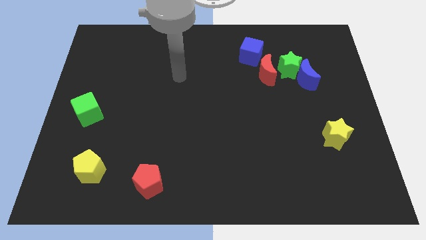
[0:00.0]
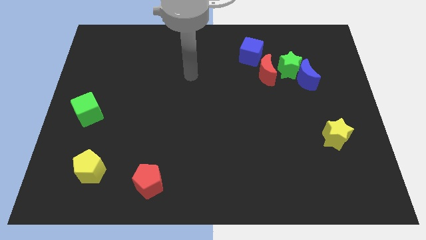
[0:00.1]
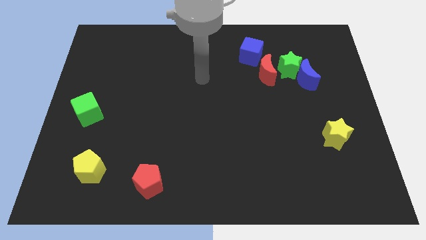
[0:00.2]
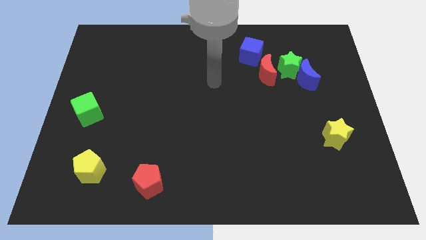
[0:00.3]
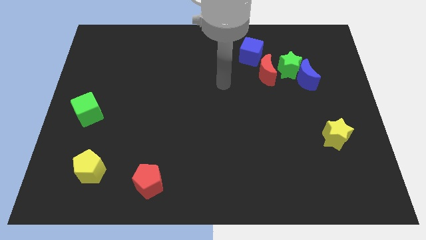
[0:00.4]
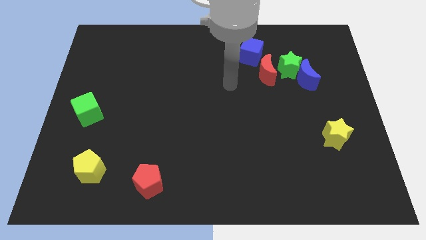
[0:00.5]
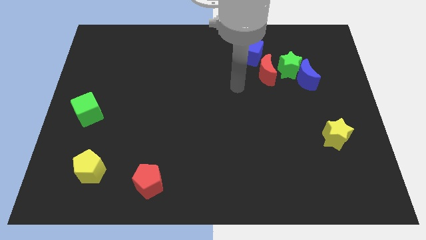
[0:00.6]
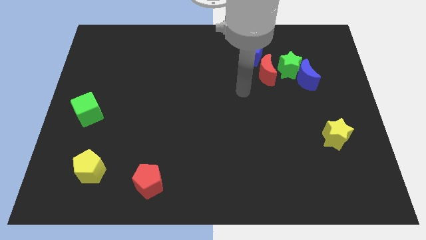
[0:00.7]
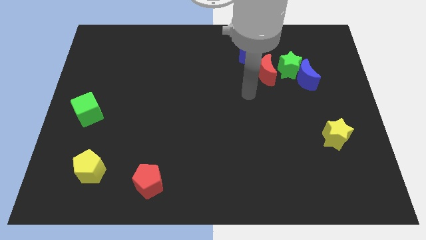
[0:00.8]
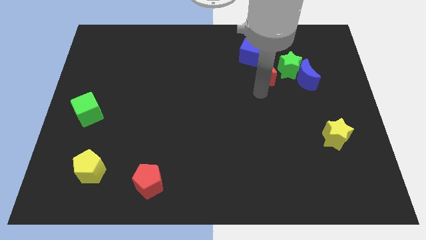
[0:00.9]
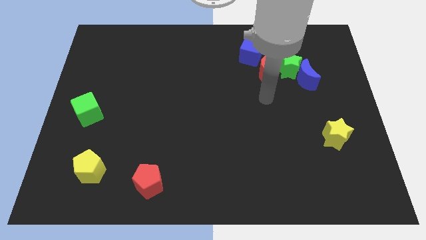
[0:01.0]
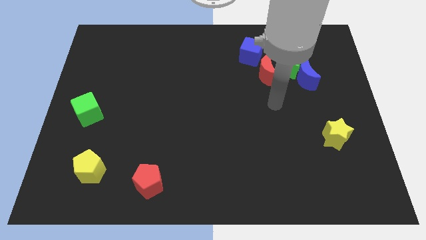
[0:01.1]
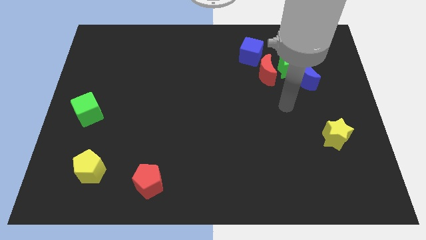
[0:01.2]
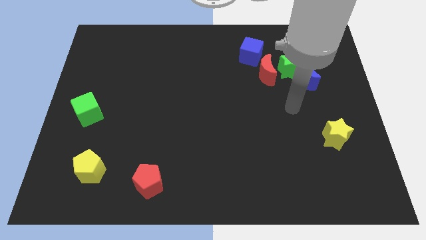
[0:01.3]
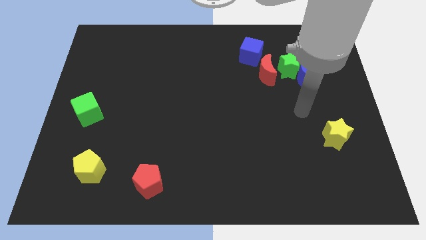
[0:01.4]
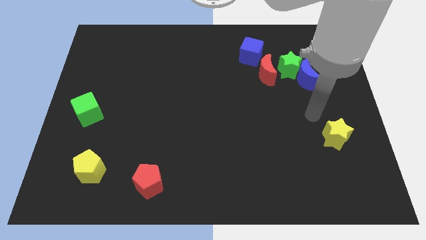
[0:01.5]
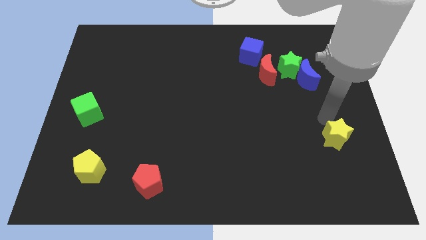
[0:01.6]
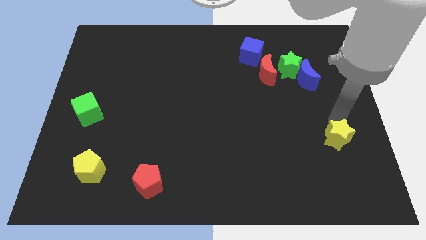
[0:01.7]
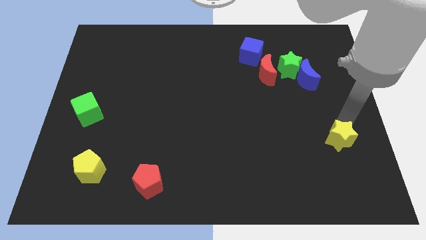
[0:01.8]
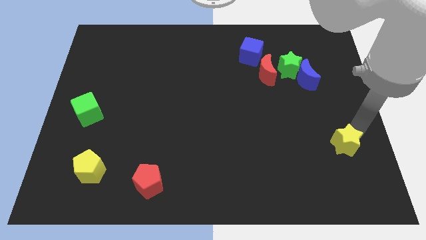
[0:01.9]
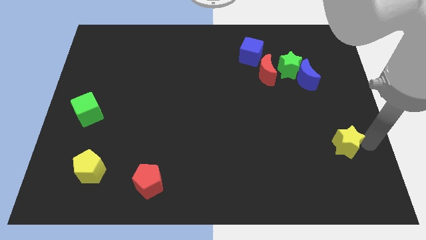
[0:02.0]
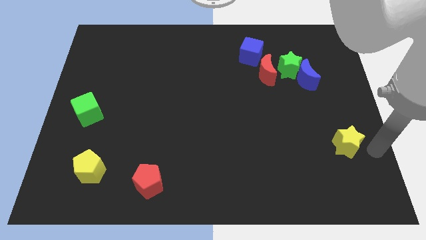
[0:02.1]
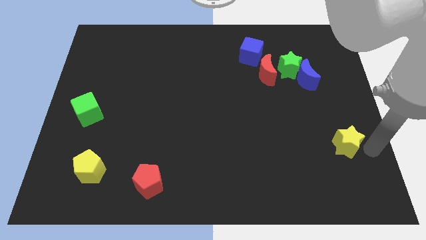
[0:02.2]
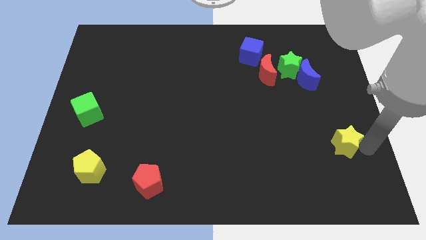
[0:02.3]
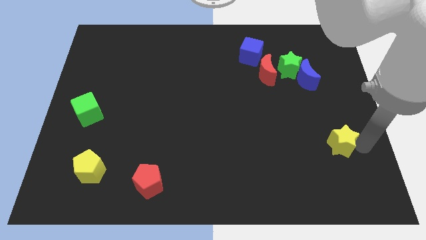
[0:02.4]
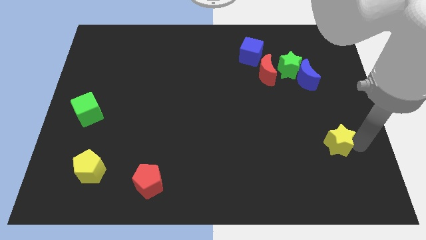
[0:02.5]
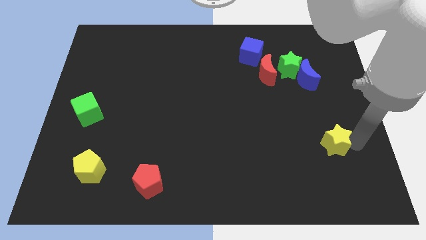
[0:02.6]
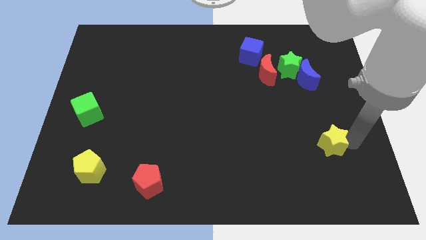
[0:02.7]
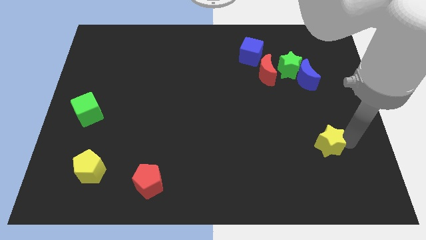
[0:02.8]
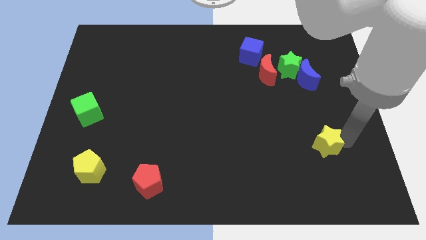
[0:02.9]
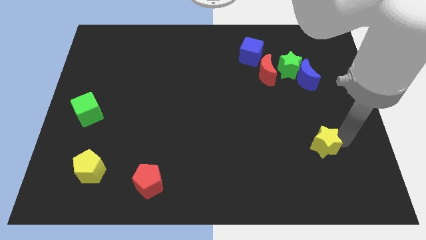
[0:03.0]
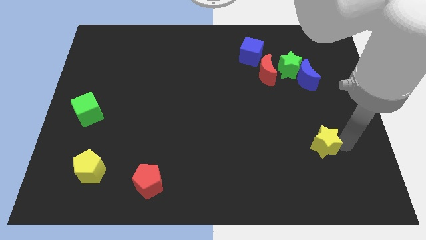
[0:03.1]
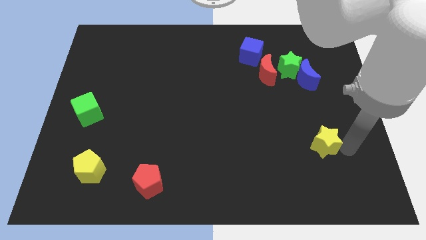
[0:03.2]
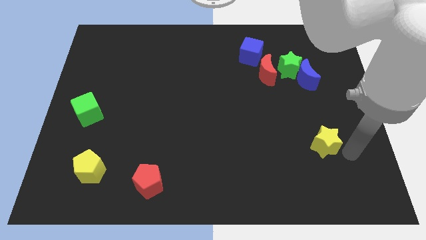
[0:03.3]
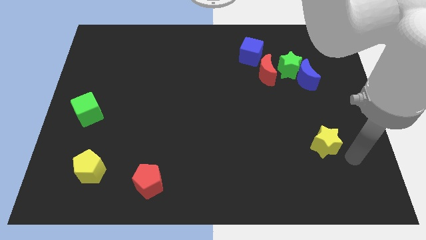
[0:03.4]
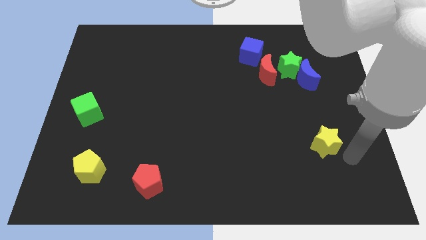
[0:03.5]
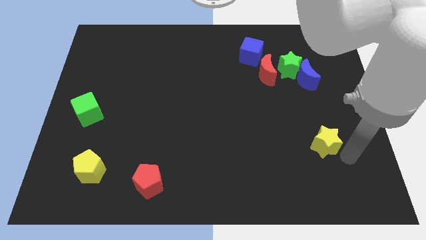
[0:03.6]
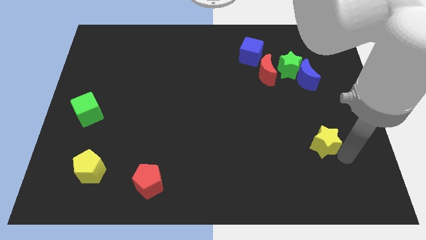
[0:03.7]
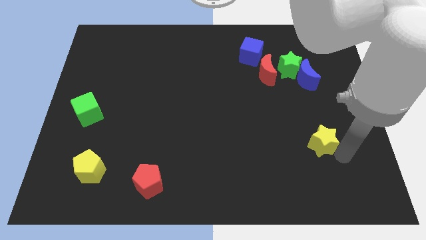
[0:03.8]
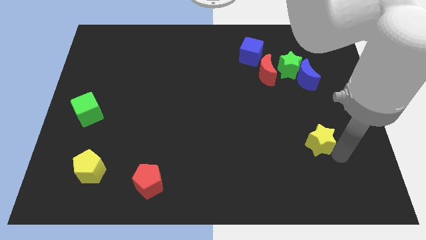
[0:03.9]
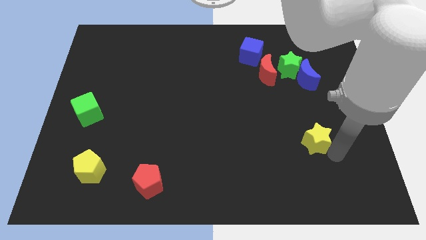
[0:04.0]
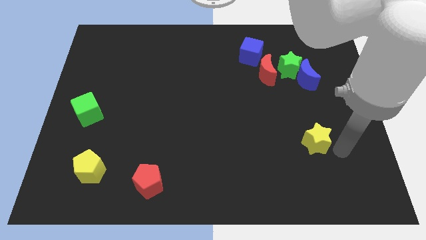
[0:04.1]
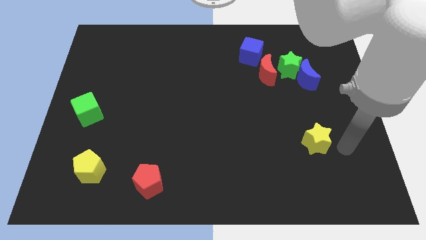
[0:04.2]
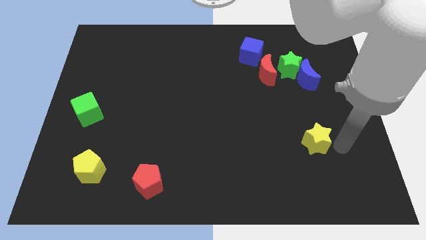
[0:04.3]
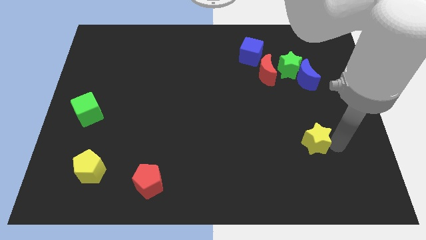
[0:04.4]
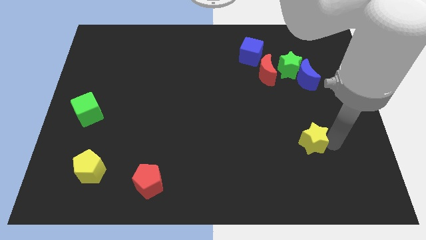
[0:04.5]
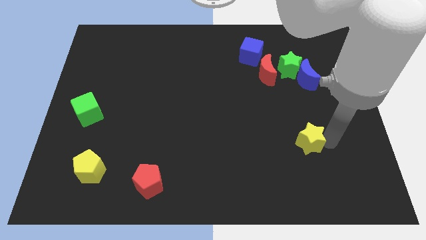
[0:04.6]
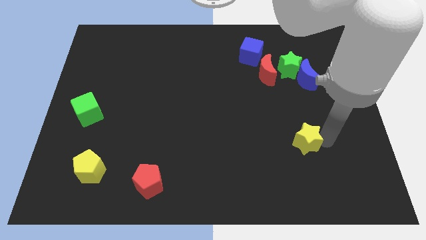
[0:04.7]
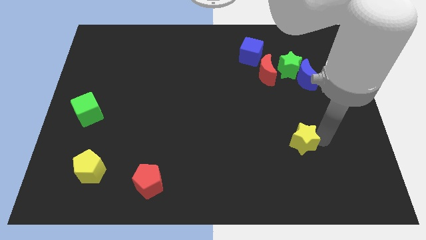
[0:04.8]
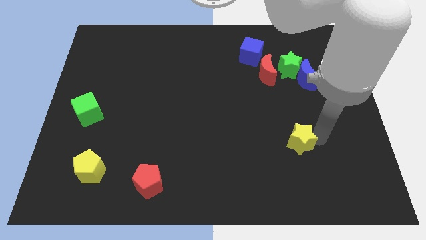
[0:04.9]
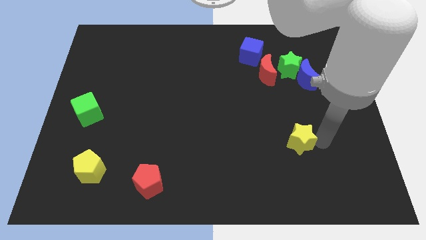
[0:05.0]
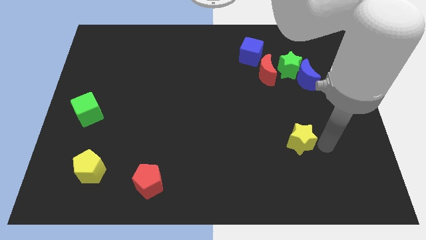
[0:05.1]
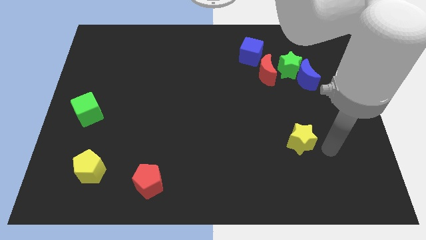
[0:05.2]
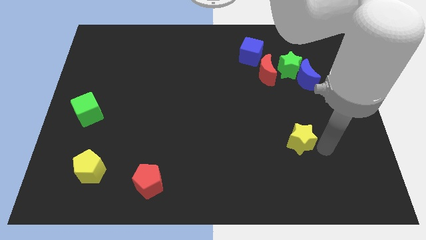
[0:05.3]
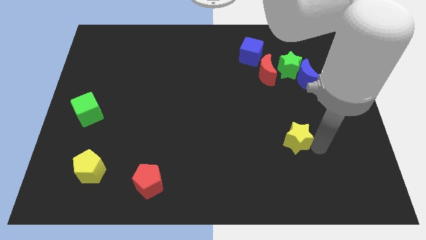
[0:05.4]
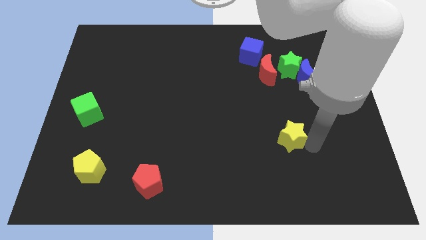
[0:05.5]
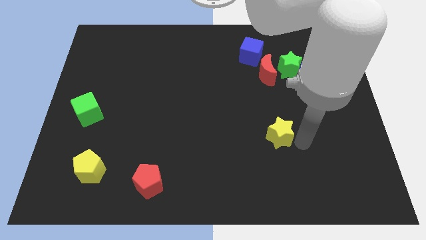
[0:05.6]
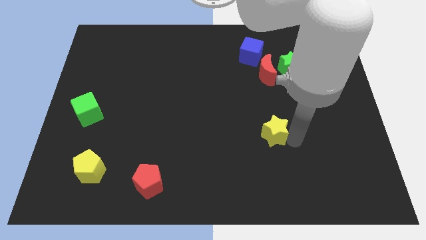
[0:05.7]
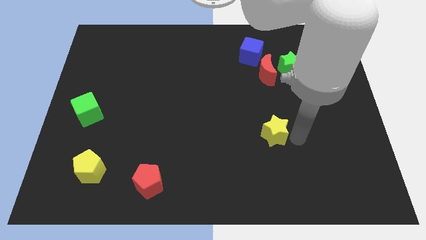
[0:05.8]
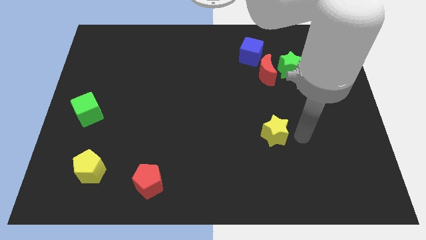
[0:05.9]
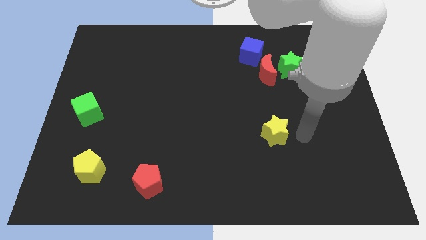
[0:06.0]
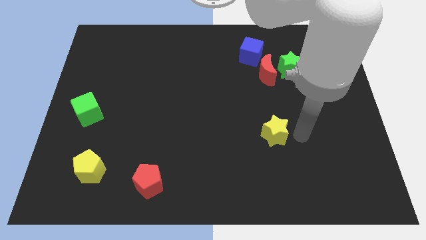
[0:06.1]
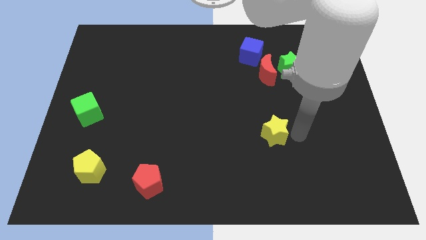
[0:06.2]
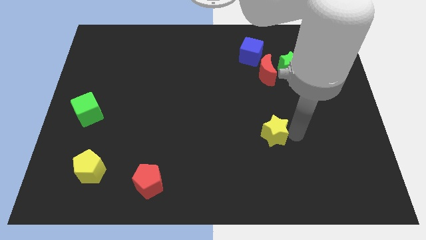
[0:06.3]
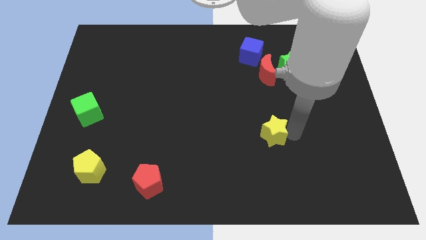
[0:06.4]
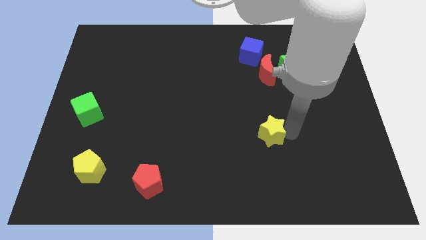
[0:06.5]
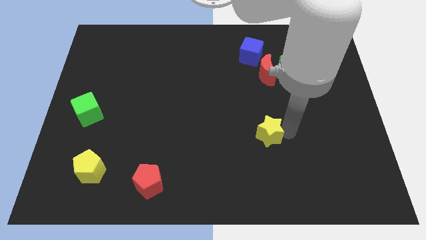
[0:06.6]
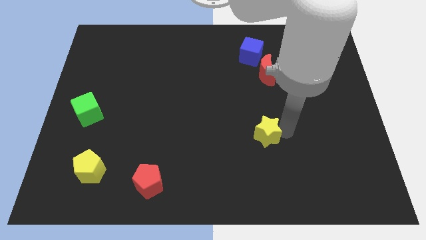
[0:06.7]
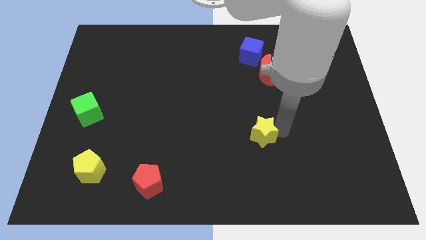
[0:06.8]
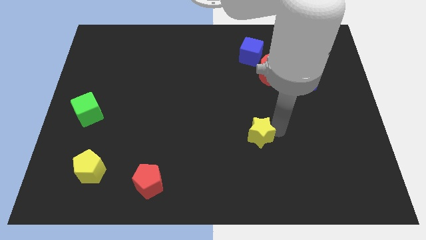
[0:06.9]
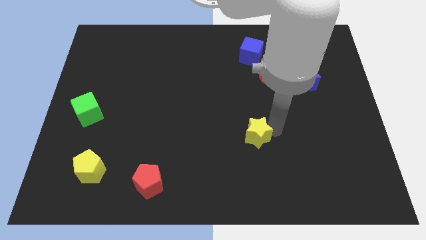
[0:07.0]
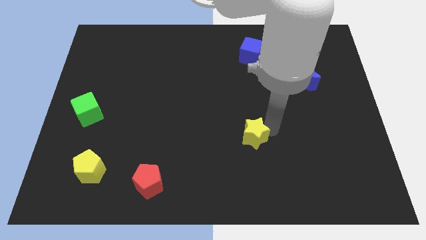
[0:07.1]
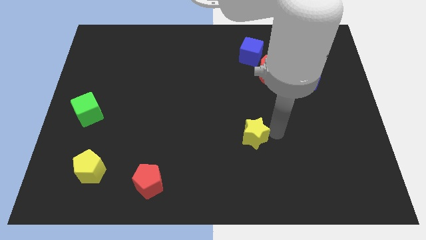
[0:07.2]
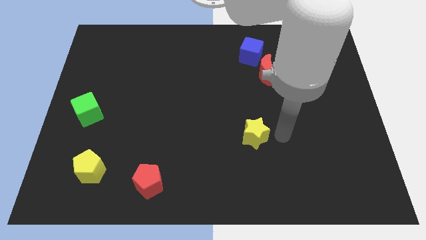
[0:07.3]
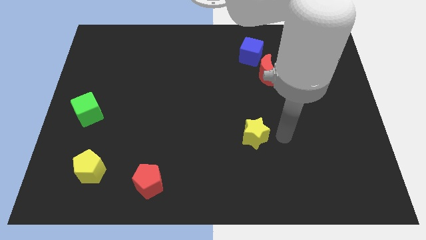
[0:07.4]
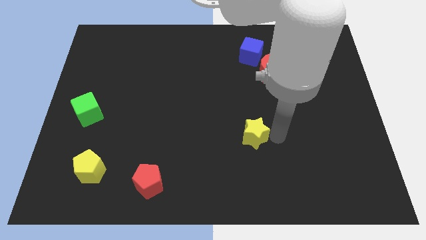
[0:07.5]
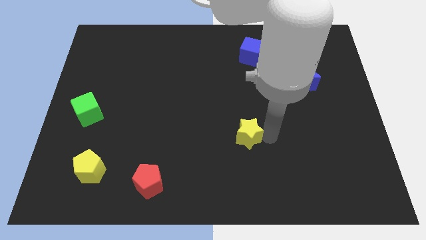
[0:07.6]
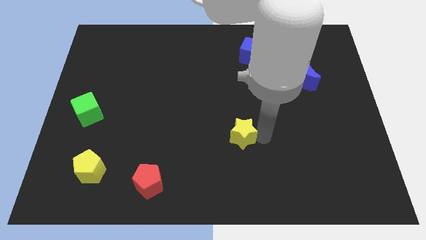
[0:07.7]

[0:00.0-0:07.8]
move the yellow star left

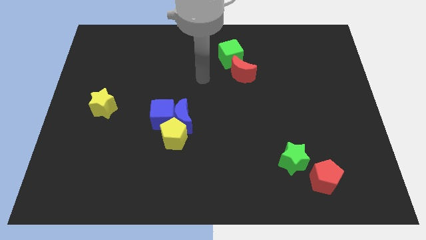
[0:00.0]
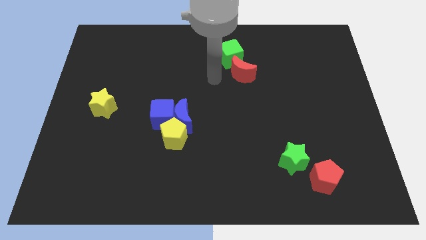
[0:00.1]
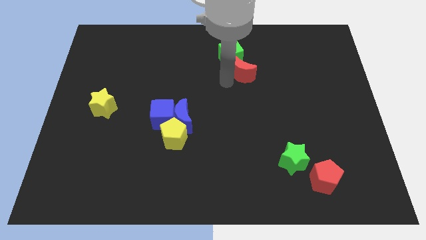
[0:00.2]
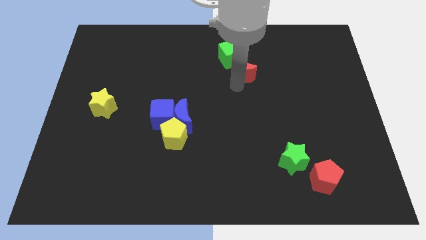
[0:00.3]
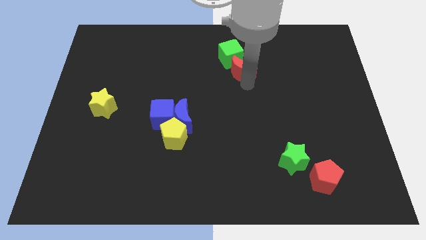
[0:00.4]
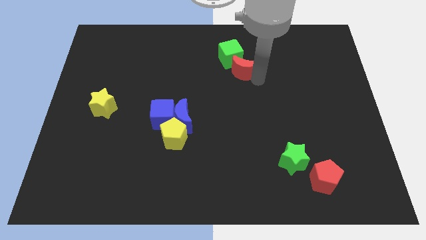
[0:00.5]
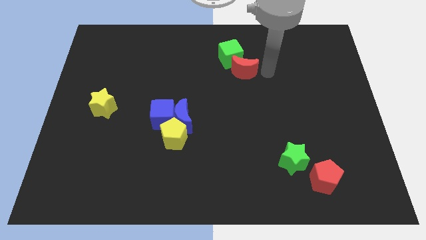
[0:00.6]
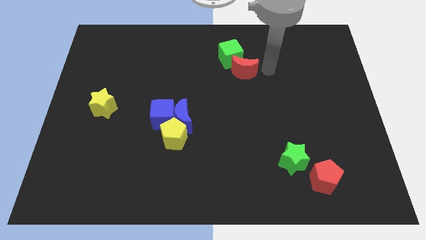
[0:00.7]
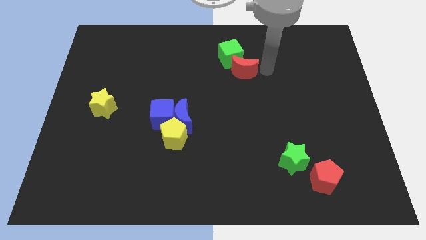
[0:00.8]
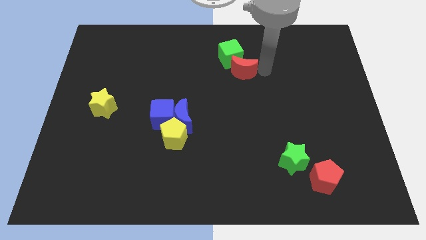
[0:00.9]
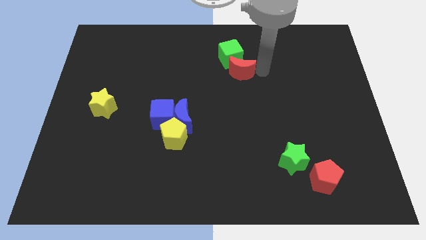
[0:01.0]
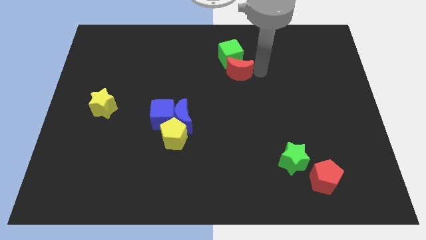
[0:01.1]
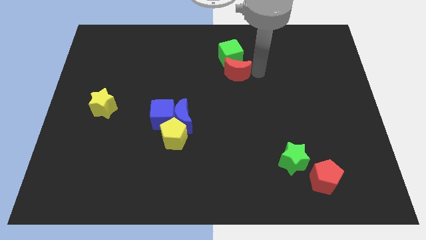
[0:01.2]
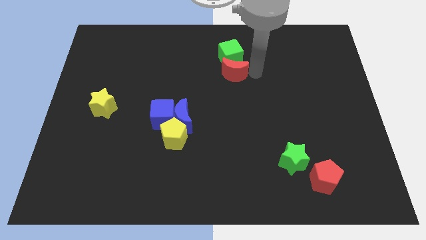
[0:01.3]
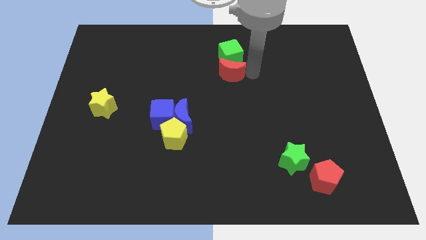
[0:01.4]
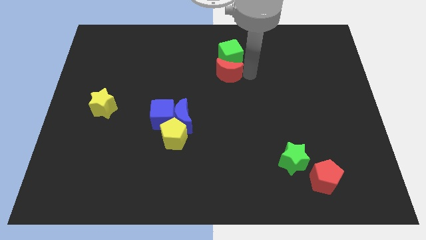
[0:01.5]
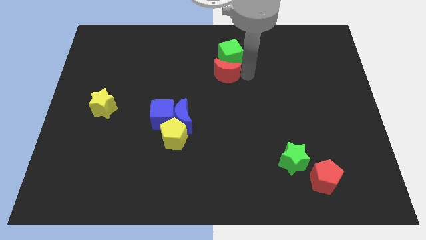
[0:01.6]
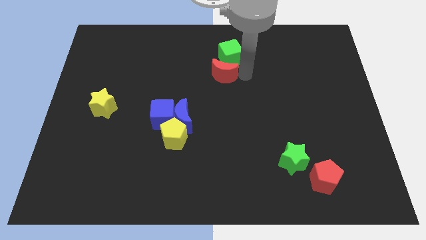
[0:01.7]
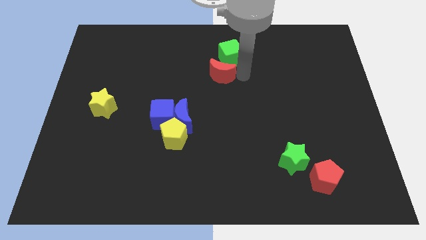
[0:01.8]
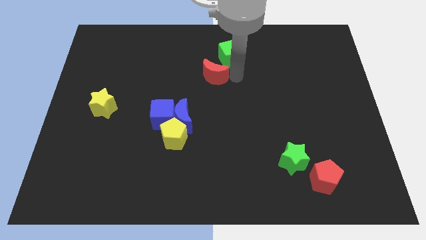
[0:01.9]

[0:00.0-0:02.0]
move the red moon left a bit
